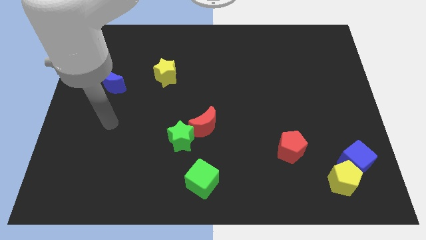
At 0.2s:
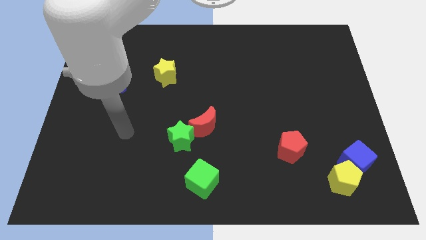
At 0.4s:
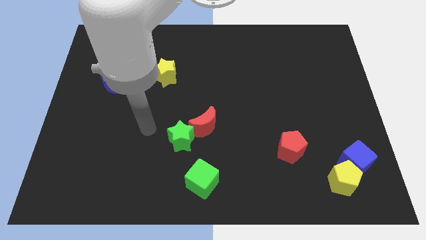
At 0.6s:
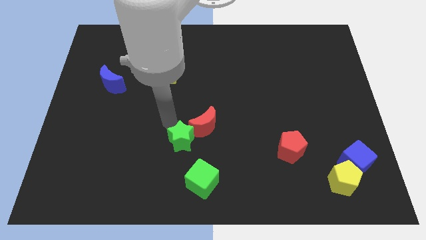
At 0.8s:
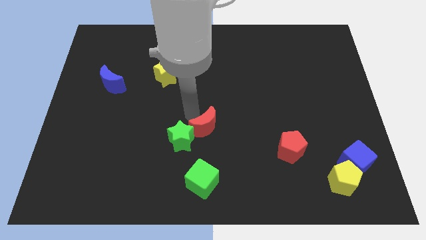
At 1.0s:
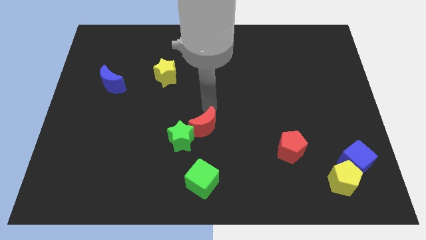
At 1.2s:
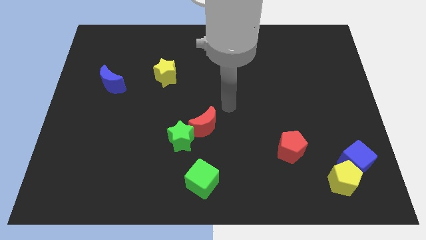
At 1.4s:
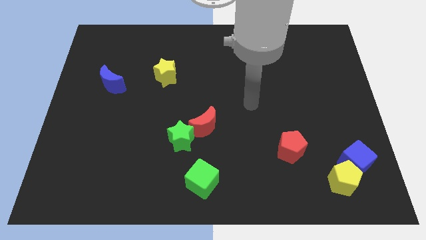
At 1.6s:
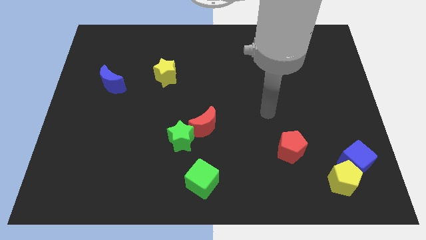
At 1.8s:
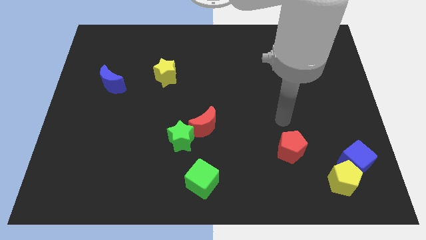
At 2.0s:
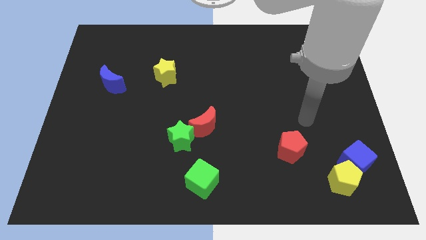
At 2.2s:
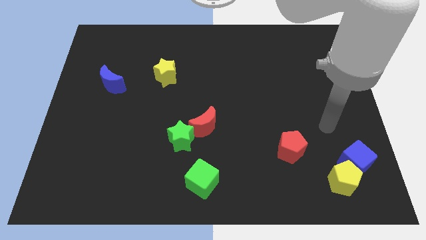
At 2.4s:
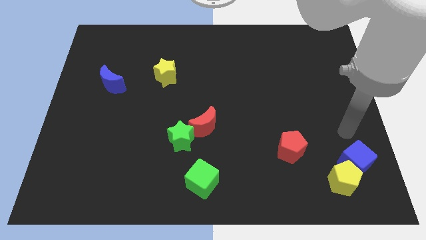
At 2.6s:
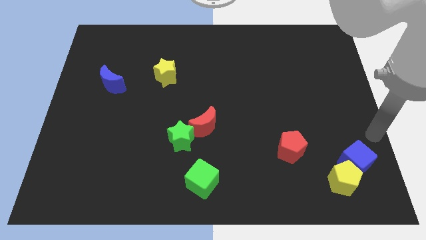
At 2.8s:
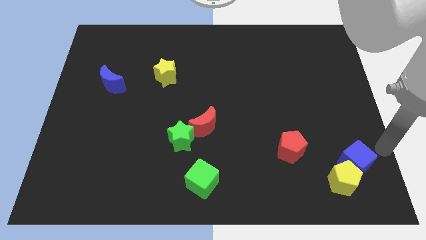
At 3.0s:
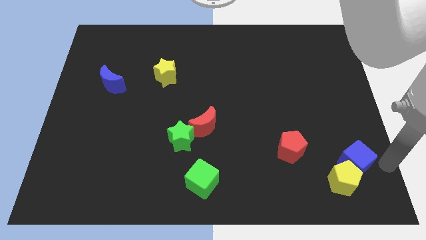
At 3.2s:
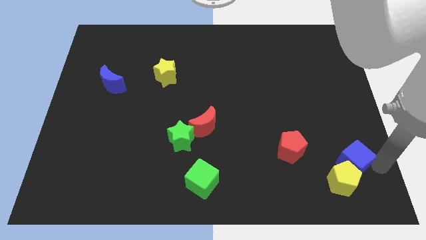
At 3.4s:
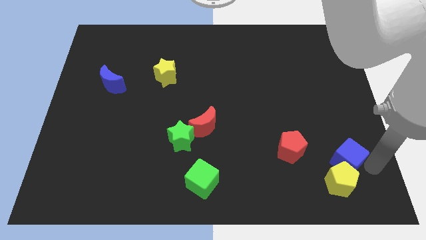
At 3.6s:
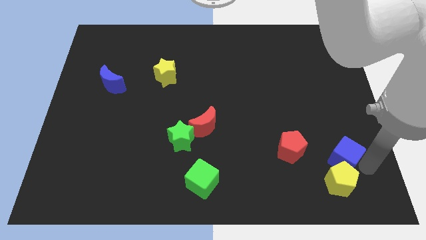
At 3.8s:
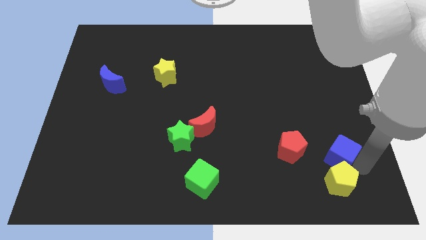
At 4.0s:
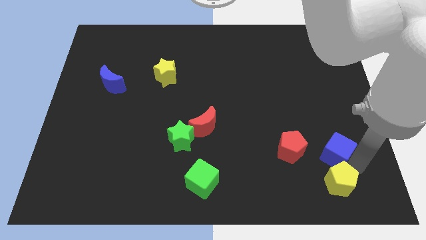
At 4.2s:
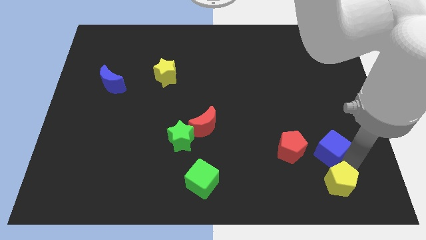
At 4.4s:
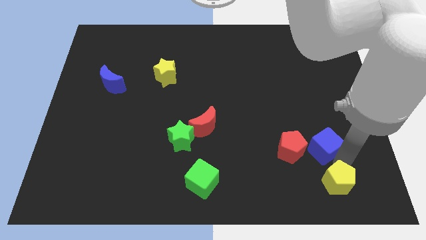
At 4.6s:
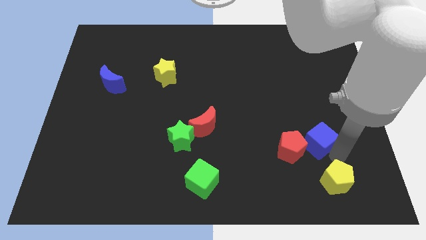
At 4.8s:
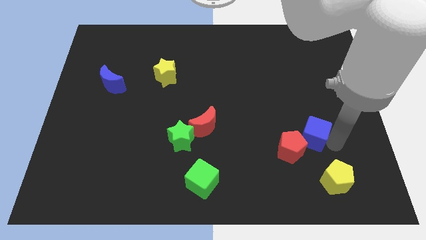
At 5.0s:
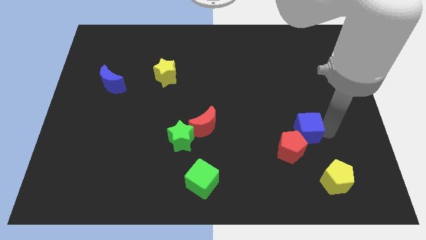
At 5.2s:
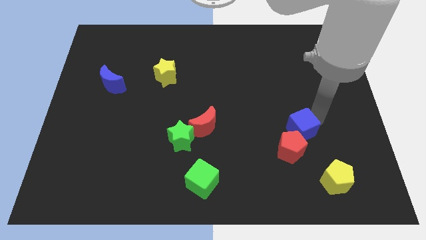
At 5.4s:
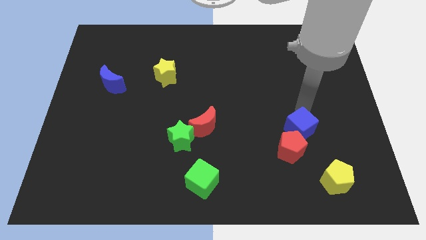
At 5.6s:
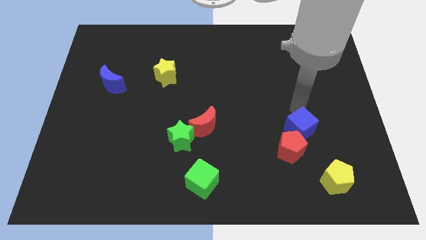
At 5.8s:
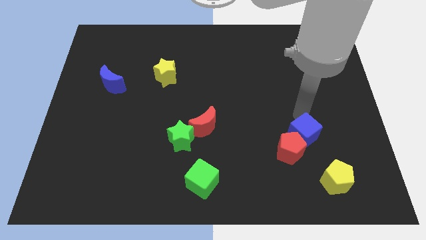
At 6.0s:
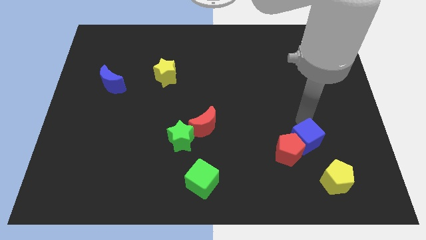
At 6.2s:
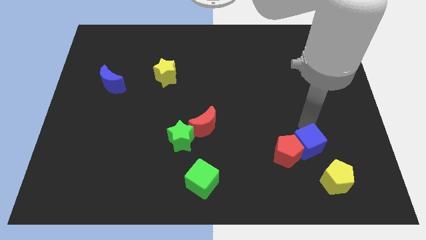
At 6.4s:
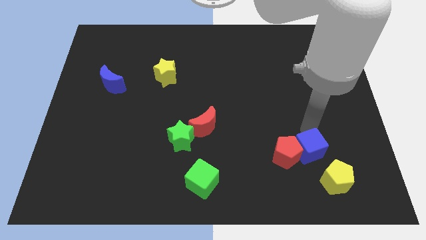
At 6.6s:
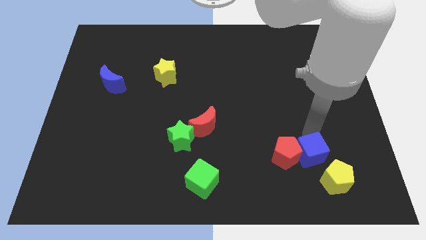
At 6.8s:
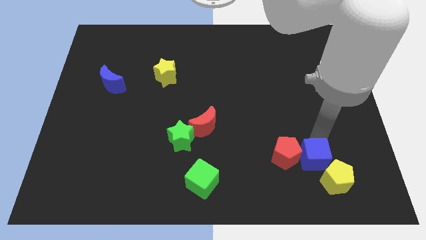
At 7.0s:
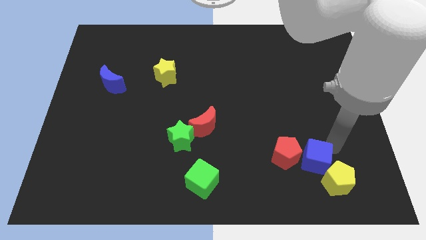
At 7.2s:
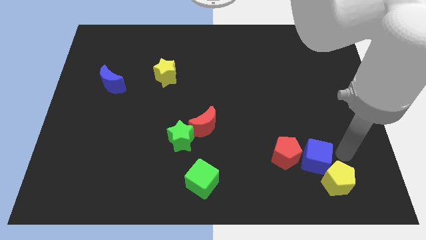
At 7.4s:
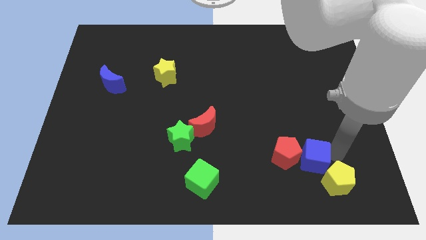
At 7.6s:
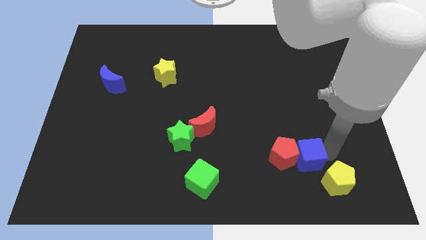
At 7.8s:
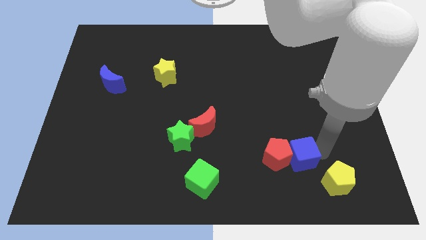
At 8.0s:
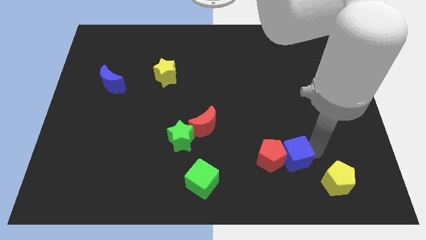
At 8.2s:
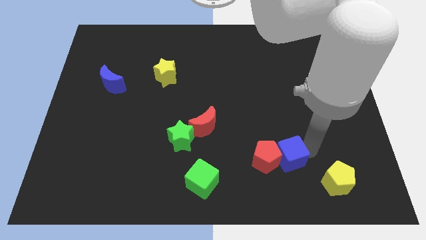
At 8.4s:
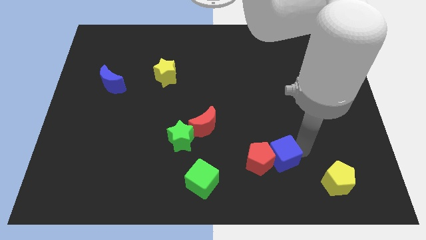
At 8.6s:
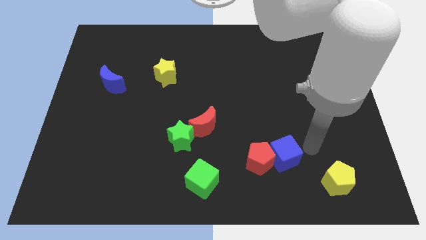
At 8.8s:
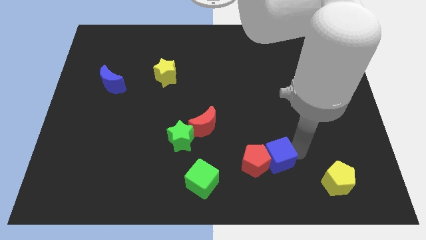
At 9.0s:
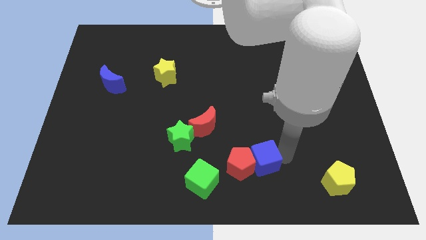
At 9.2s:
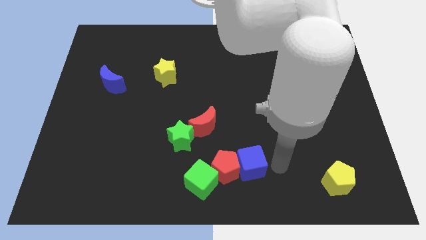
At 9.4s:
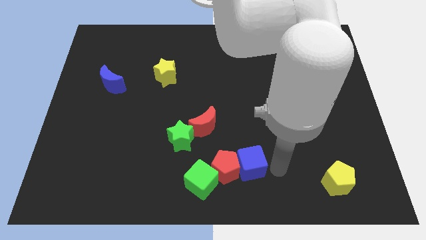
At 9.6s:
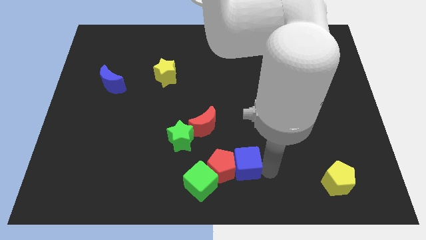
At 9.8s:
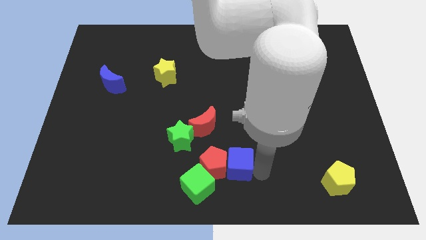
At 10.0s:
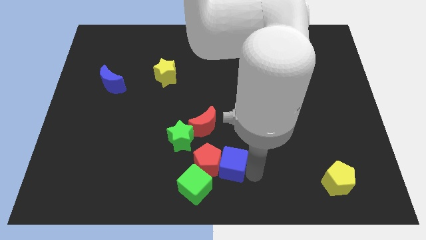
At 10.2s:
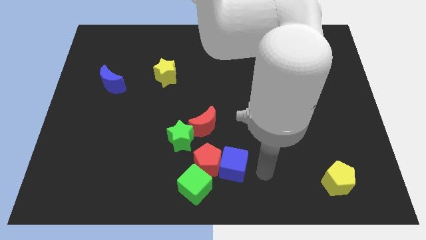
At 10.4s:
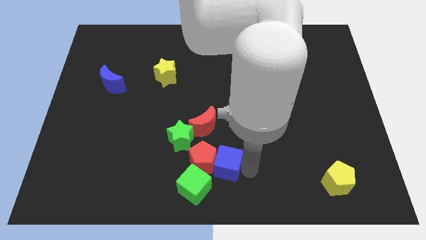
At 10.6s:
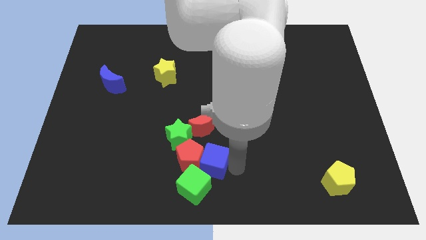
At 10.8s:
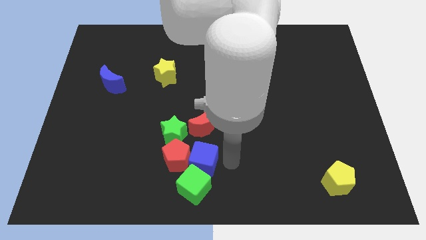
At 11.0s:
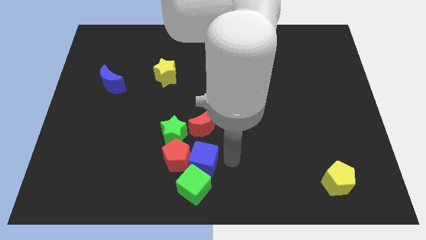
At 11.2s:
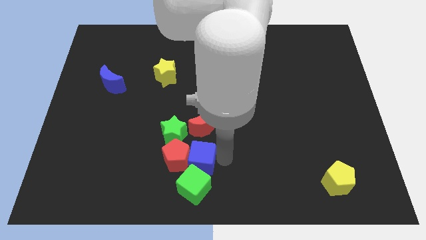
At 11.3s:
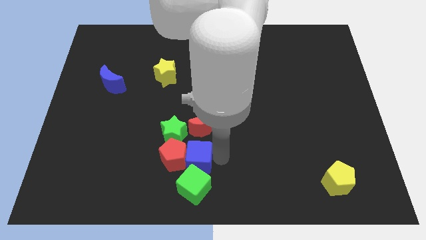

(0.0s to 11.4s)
push the blue cube to the top left side of the green cube

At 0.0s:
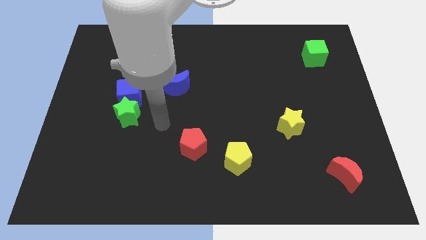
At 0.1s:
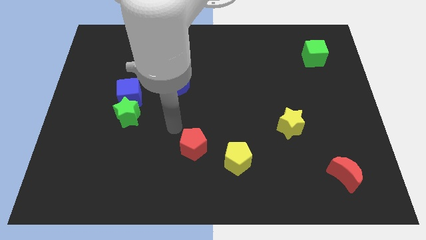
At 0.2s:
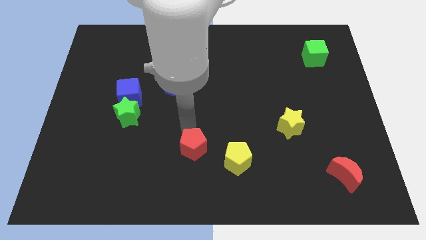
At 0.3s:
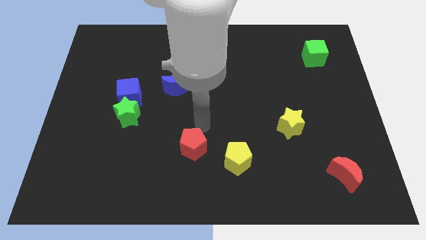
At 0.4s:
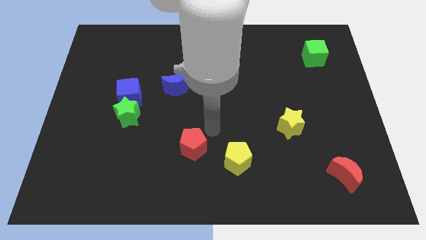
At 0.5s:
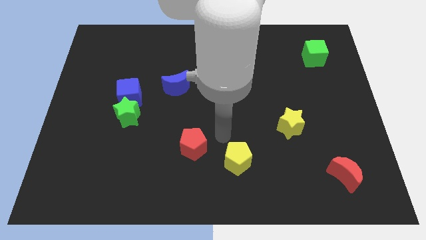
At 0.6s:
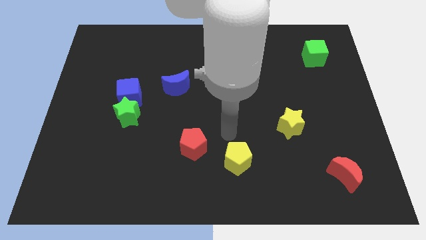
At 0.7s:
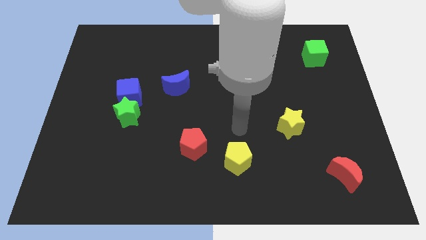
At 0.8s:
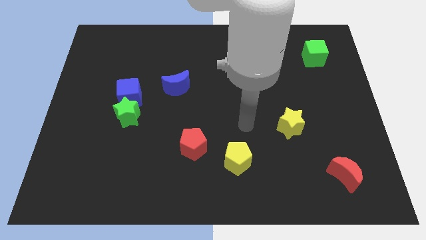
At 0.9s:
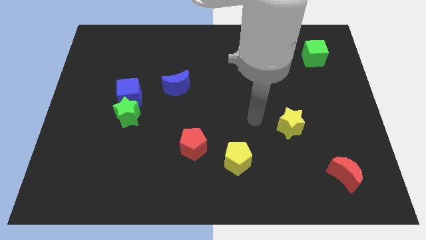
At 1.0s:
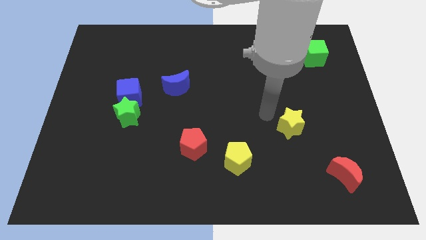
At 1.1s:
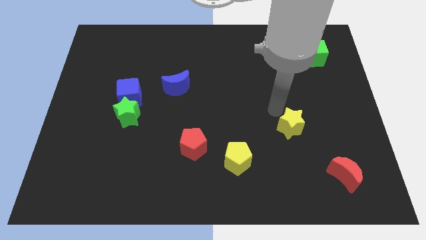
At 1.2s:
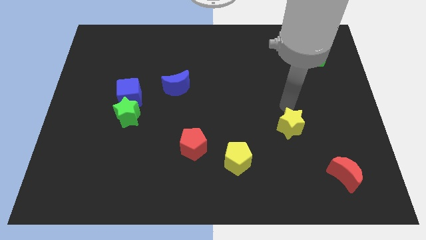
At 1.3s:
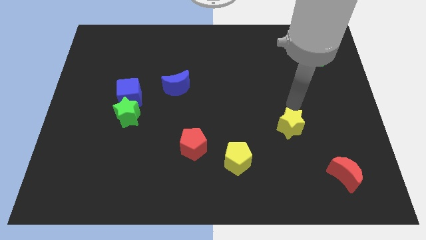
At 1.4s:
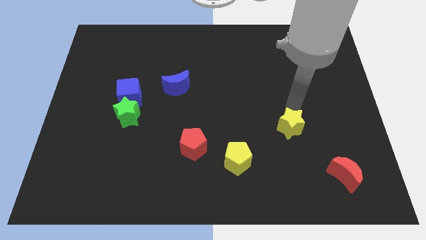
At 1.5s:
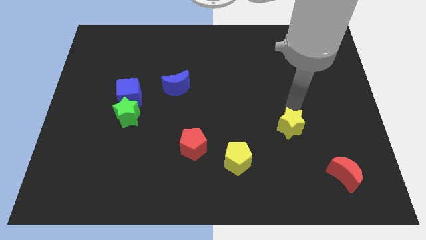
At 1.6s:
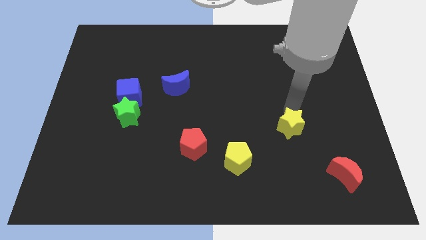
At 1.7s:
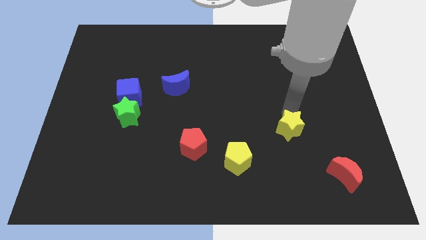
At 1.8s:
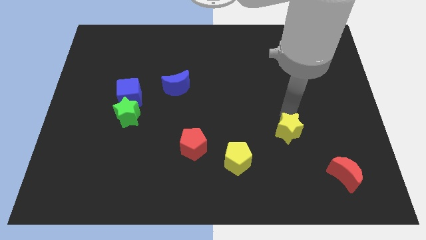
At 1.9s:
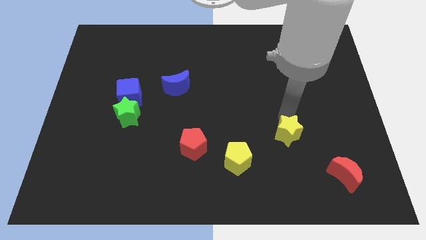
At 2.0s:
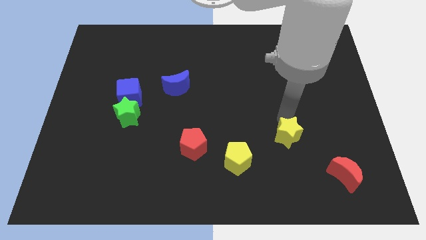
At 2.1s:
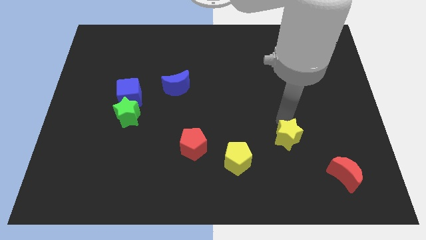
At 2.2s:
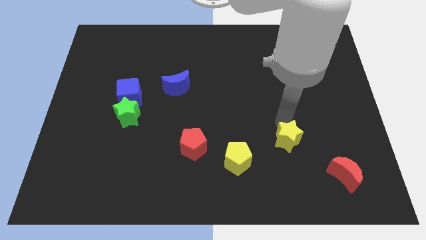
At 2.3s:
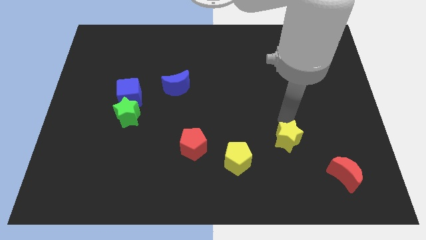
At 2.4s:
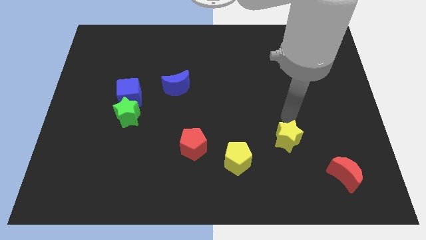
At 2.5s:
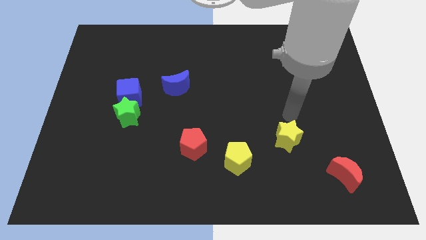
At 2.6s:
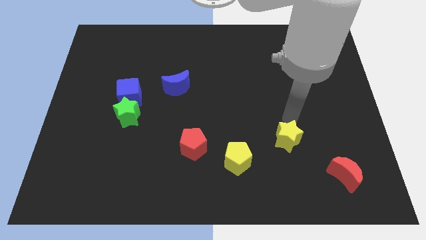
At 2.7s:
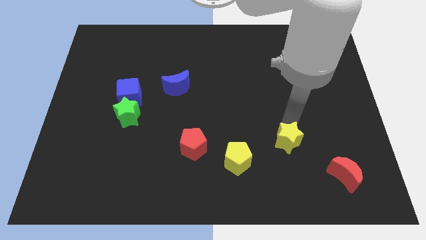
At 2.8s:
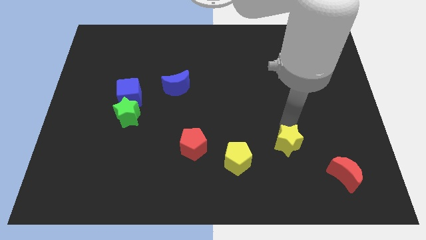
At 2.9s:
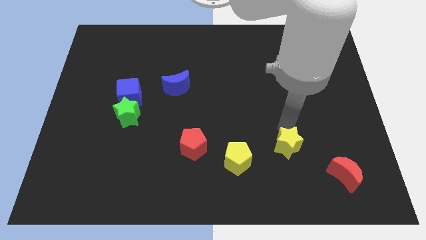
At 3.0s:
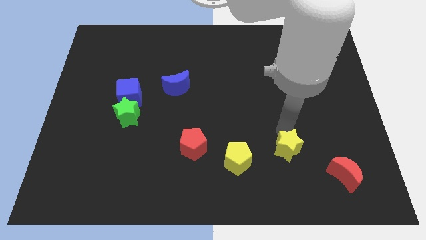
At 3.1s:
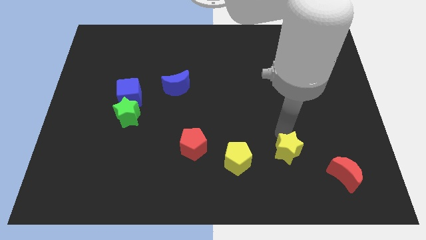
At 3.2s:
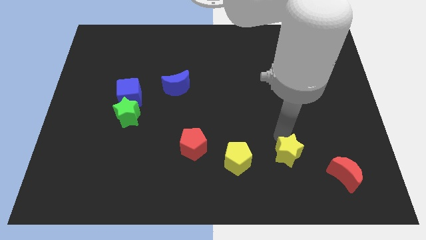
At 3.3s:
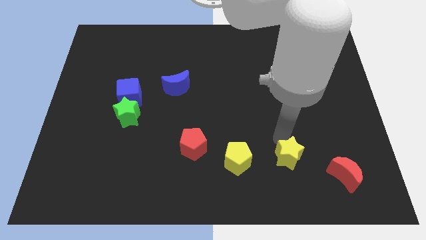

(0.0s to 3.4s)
move the yellow star to the left side of the red moon
